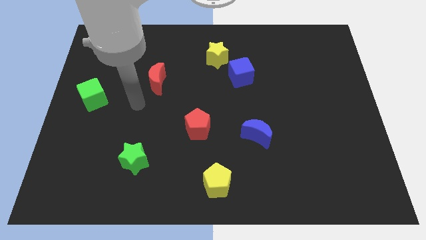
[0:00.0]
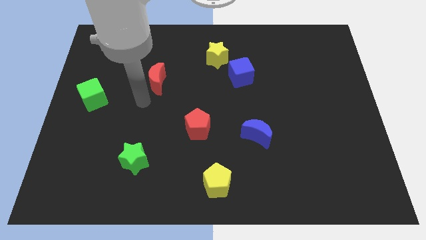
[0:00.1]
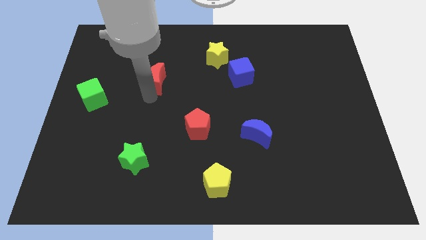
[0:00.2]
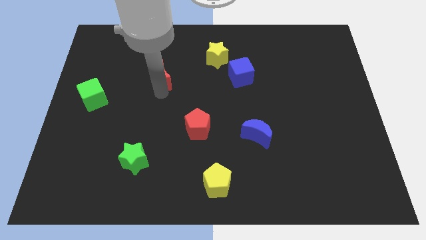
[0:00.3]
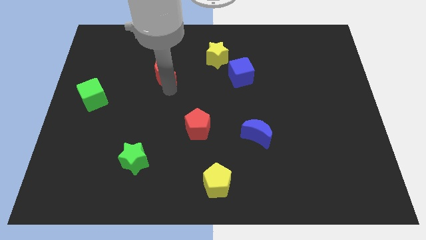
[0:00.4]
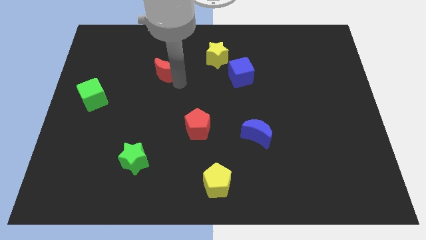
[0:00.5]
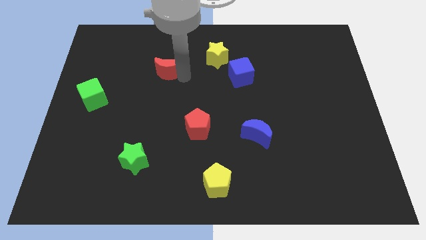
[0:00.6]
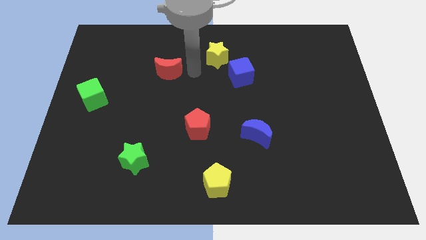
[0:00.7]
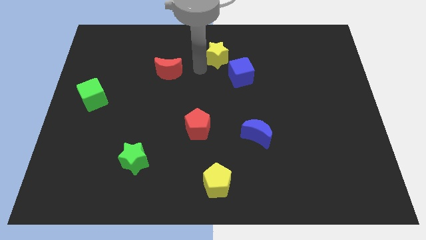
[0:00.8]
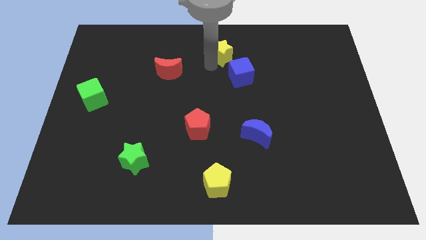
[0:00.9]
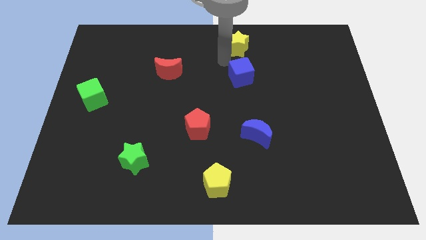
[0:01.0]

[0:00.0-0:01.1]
move the blue cube away from the yellow star

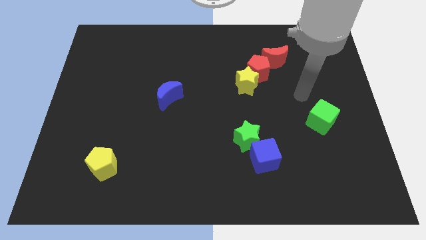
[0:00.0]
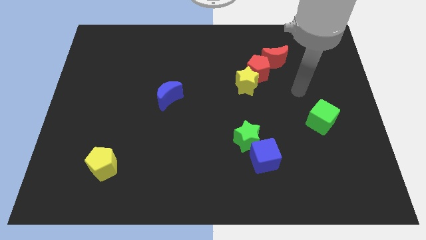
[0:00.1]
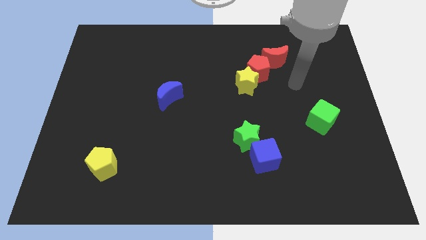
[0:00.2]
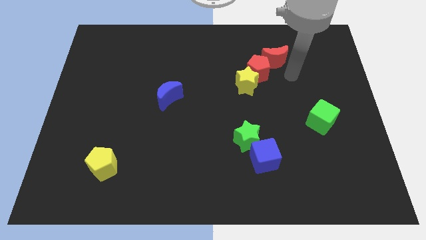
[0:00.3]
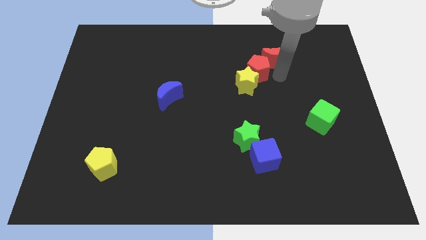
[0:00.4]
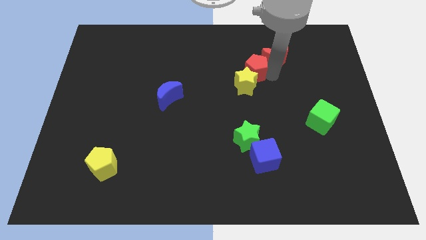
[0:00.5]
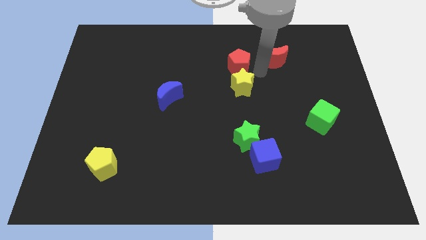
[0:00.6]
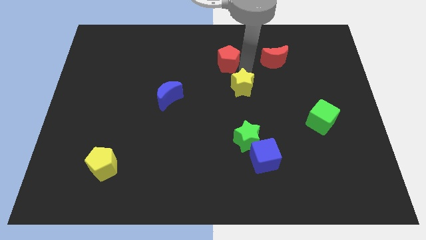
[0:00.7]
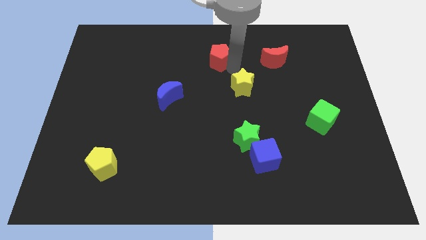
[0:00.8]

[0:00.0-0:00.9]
pull the yellow star apart from the red pentagon

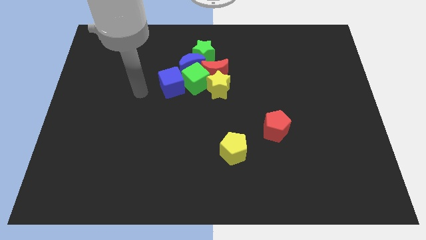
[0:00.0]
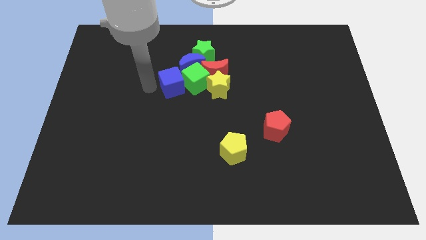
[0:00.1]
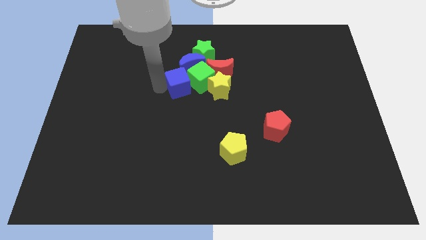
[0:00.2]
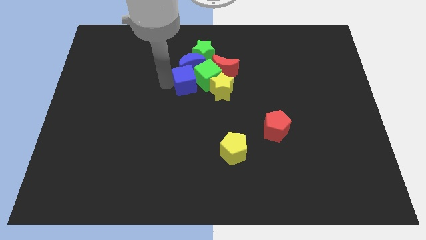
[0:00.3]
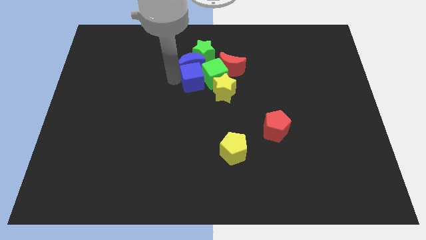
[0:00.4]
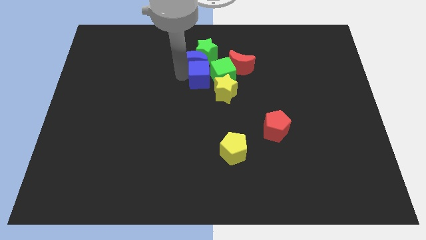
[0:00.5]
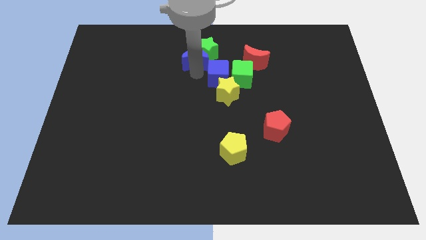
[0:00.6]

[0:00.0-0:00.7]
pull the red moon apart from the group of blocks

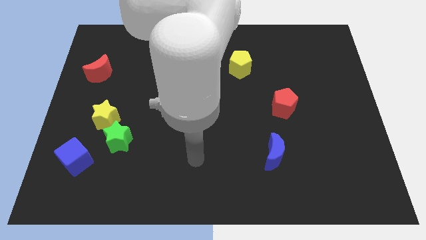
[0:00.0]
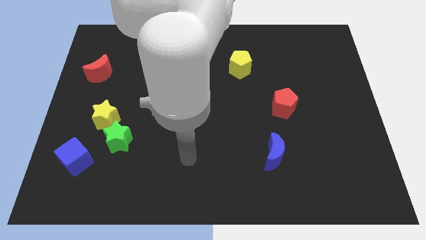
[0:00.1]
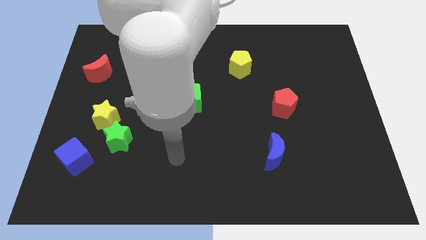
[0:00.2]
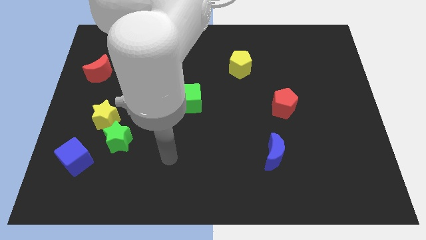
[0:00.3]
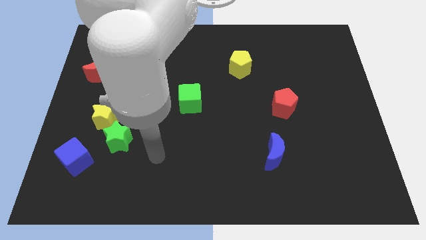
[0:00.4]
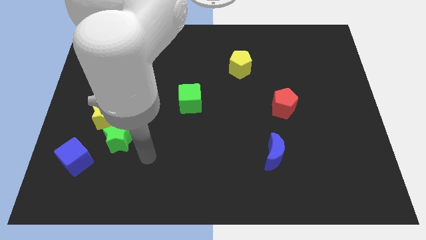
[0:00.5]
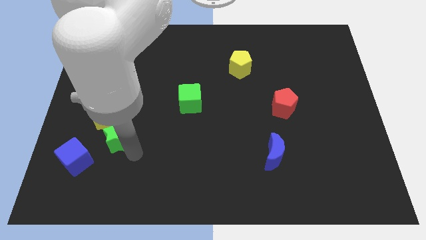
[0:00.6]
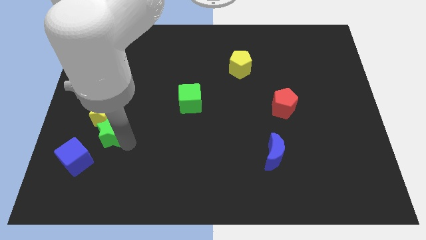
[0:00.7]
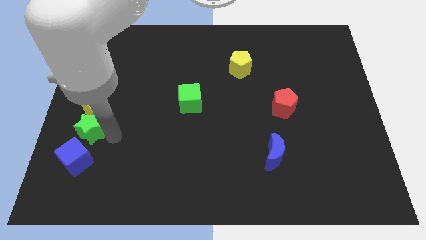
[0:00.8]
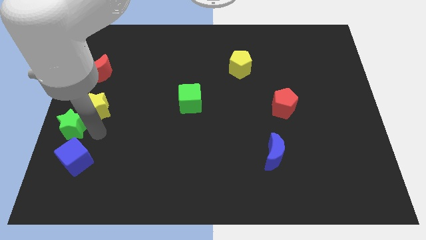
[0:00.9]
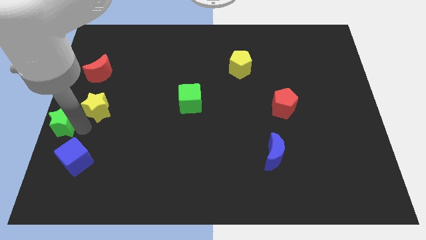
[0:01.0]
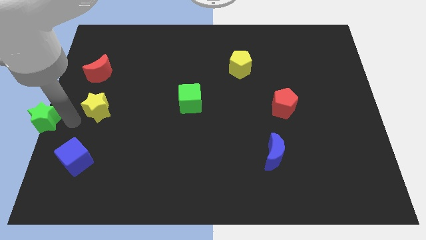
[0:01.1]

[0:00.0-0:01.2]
separate the yellow star from the green star

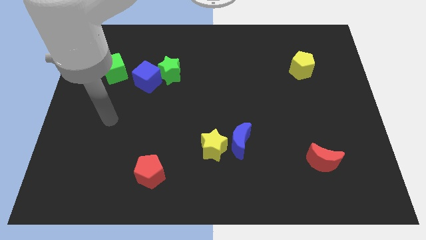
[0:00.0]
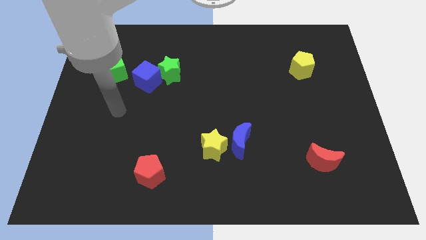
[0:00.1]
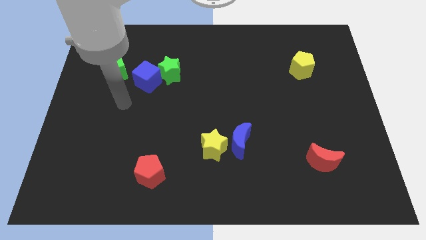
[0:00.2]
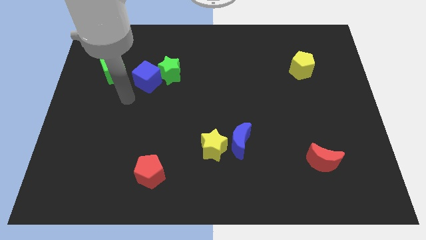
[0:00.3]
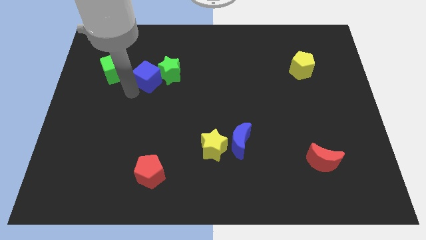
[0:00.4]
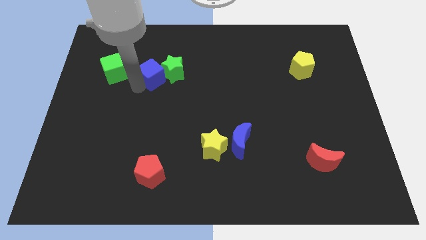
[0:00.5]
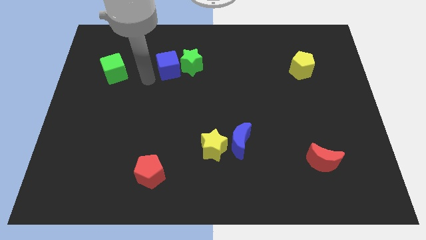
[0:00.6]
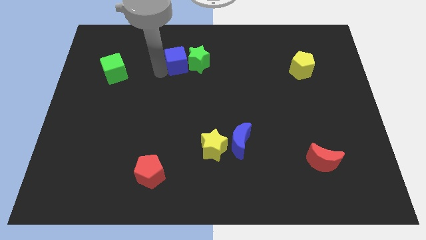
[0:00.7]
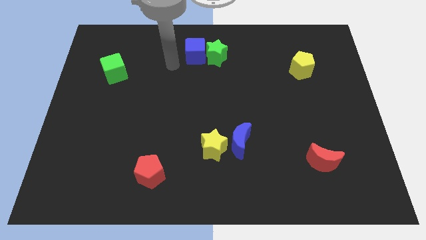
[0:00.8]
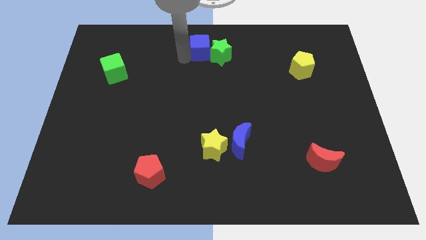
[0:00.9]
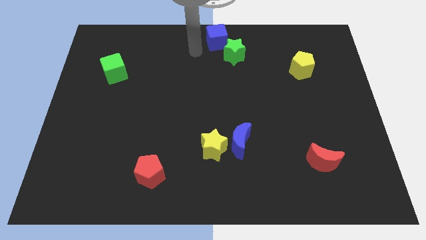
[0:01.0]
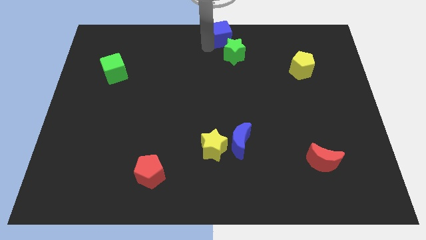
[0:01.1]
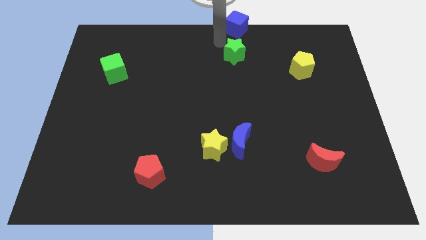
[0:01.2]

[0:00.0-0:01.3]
separate the green star from the blue cube

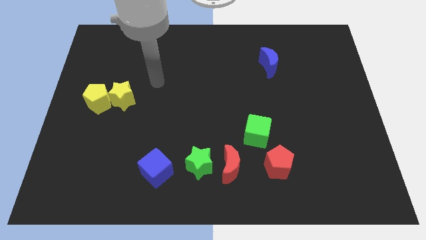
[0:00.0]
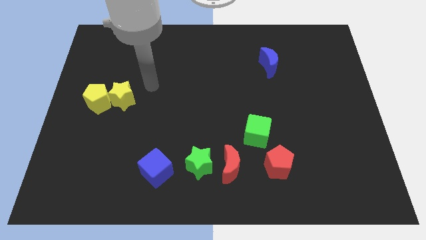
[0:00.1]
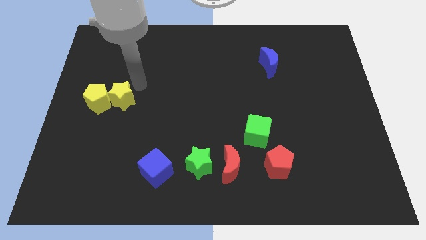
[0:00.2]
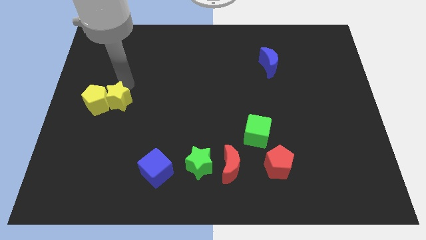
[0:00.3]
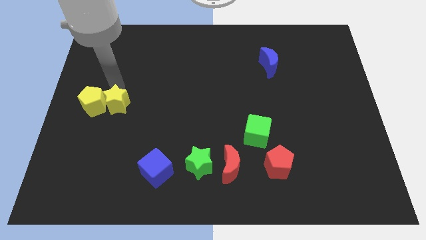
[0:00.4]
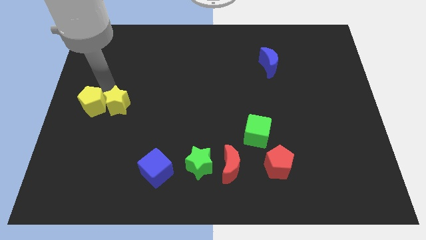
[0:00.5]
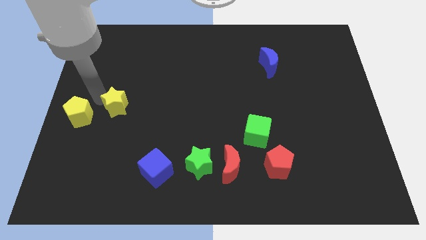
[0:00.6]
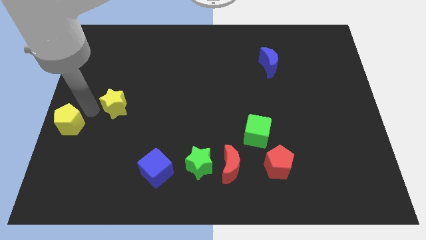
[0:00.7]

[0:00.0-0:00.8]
pull the yellow star apart from the yellow pentagon

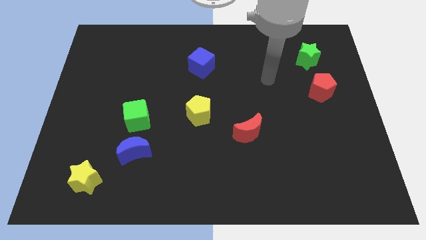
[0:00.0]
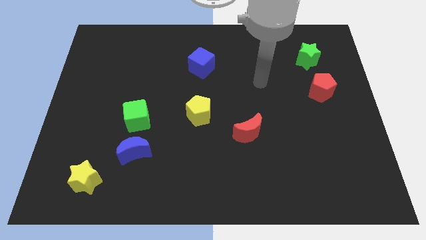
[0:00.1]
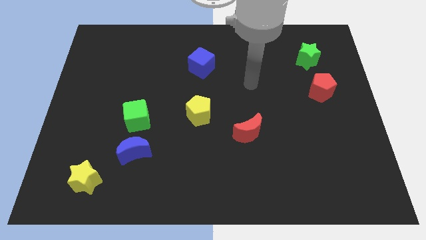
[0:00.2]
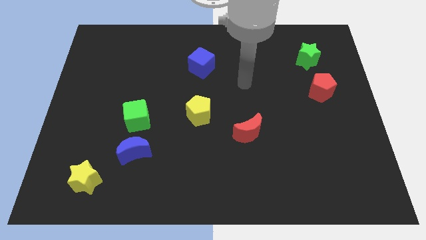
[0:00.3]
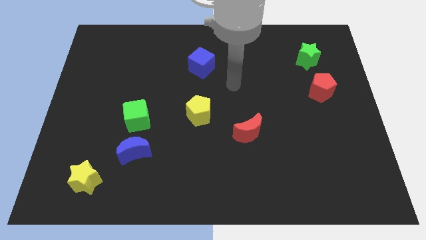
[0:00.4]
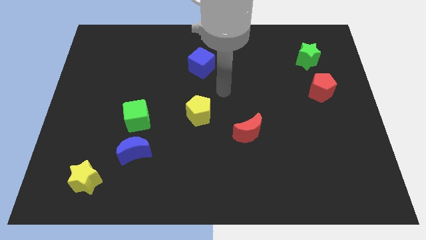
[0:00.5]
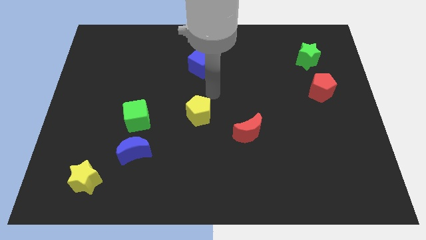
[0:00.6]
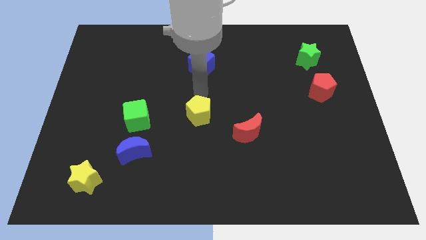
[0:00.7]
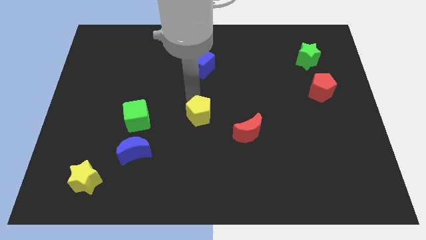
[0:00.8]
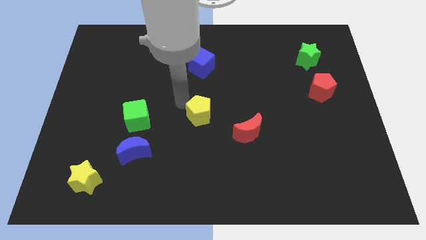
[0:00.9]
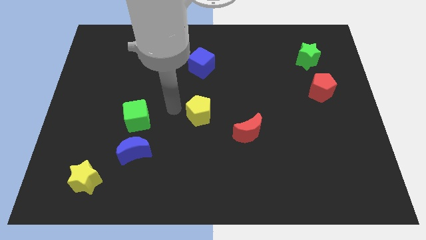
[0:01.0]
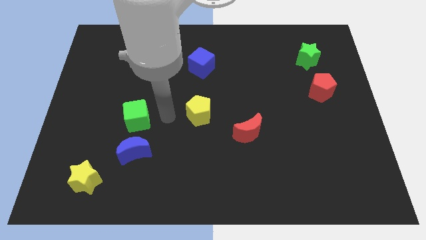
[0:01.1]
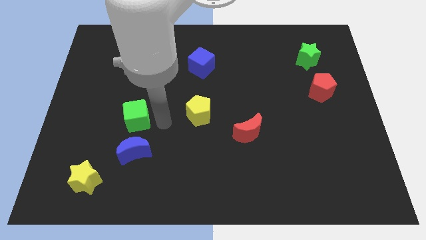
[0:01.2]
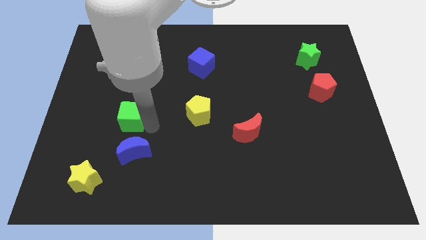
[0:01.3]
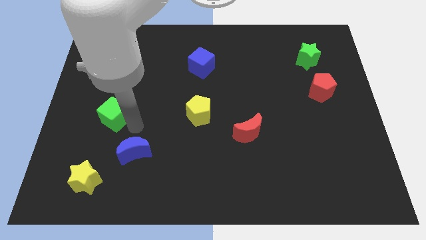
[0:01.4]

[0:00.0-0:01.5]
pull the blue moon apart from the green cube

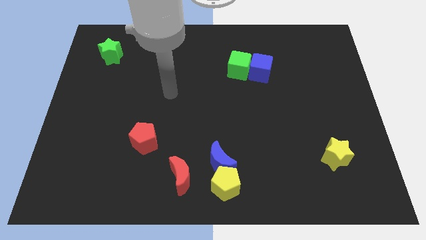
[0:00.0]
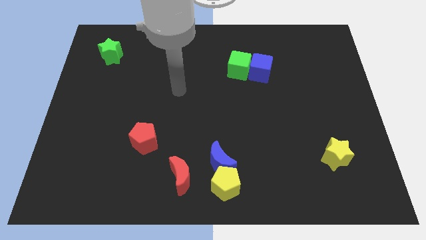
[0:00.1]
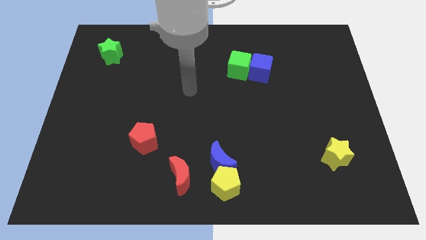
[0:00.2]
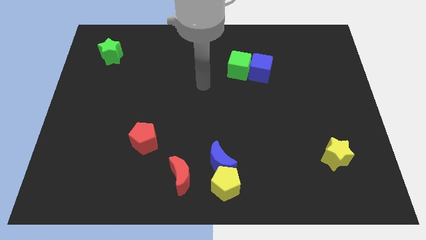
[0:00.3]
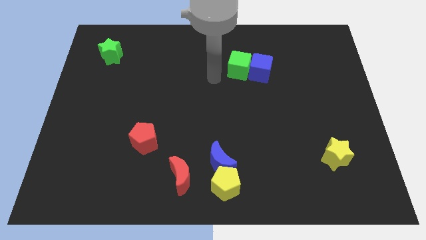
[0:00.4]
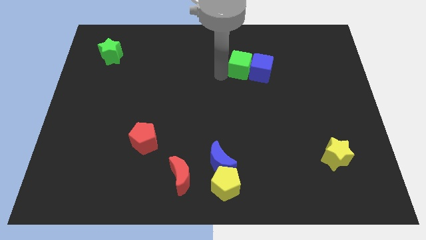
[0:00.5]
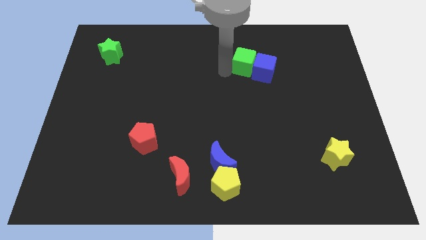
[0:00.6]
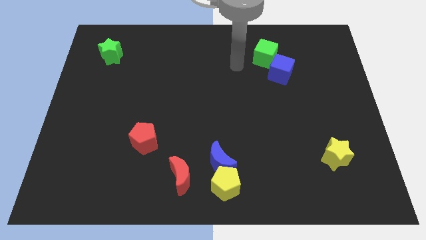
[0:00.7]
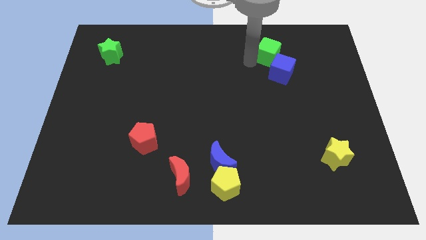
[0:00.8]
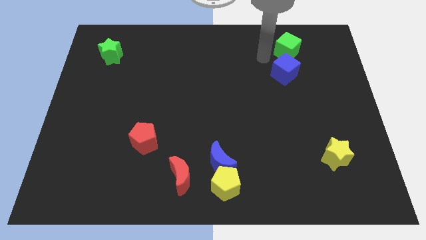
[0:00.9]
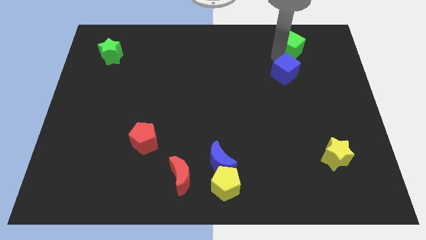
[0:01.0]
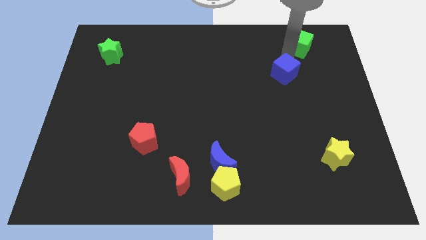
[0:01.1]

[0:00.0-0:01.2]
move the blue cube away from the green cube

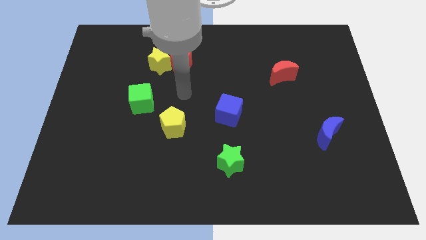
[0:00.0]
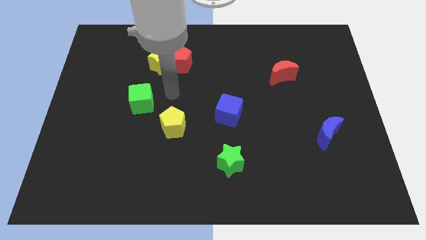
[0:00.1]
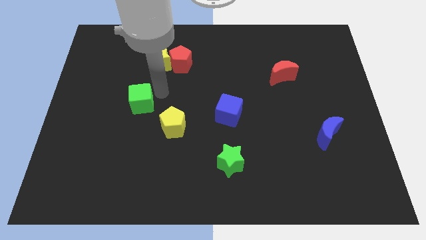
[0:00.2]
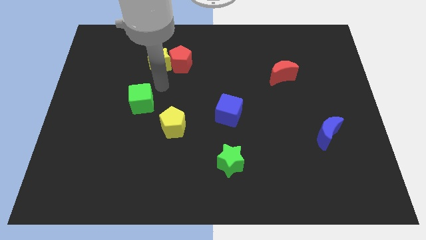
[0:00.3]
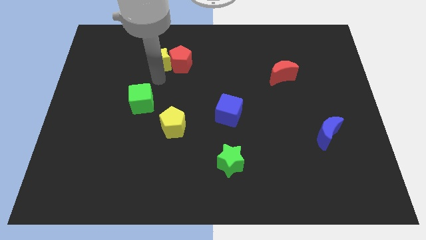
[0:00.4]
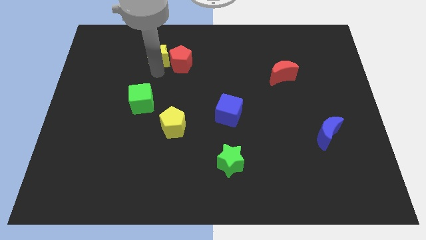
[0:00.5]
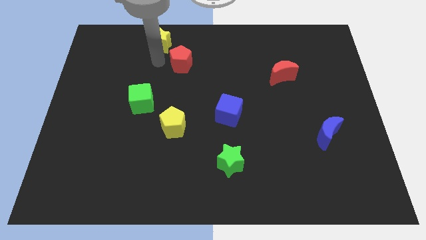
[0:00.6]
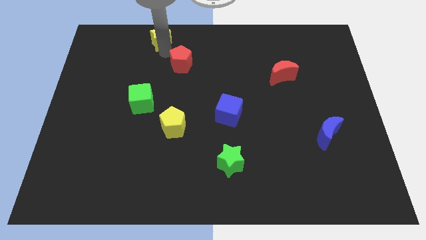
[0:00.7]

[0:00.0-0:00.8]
move the red pentagon away from the yellow star
